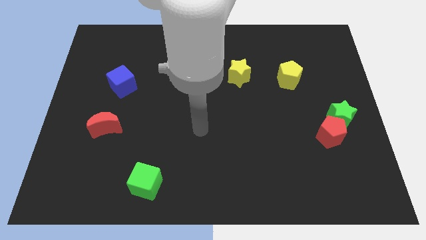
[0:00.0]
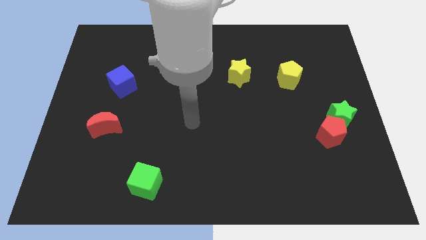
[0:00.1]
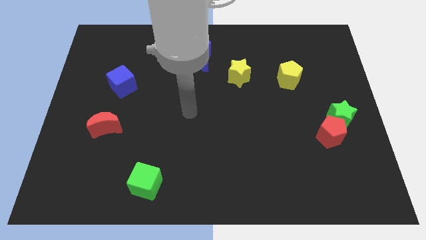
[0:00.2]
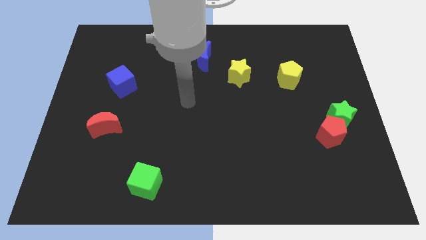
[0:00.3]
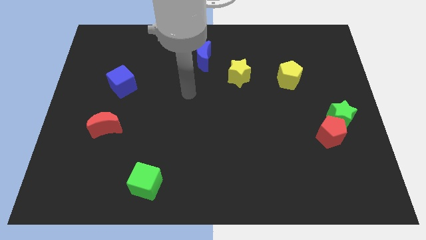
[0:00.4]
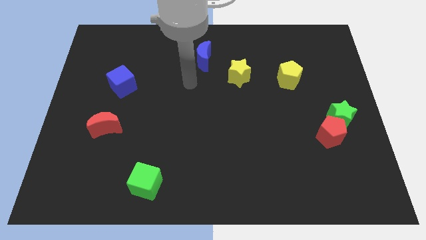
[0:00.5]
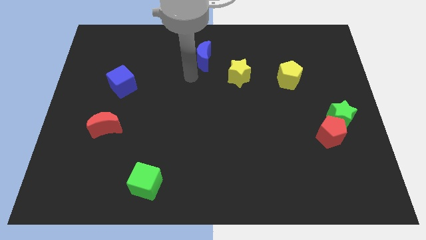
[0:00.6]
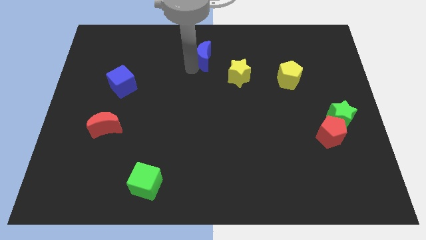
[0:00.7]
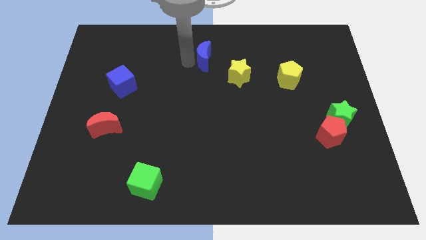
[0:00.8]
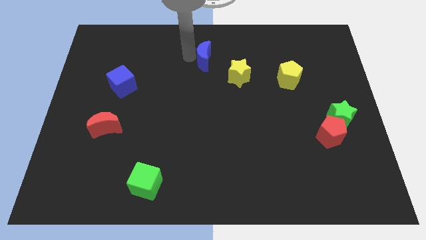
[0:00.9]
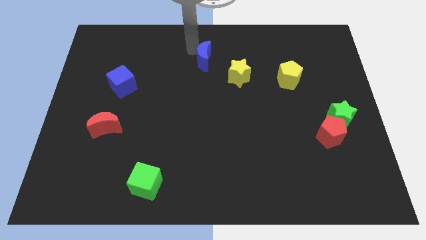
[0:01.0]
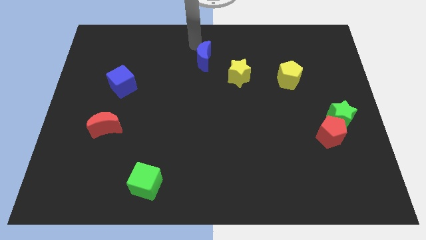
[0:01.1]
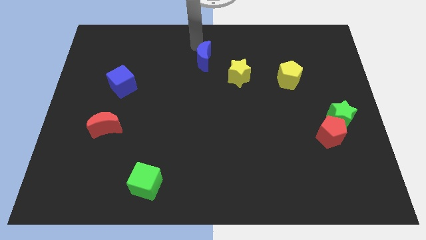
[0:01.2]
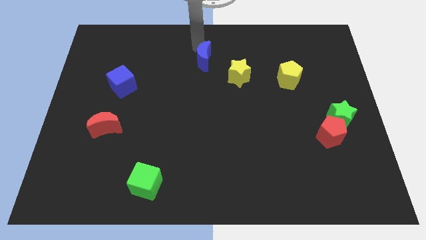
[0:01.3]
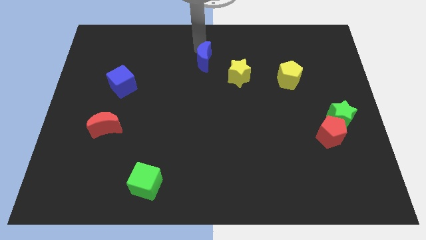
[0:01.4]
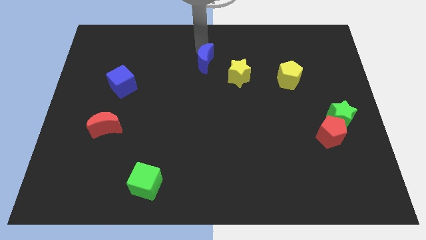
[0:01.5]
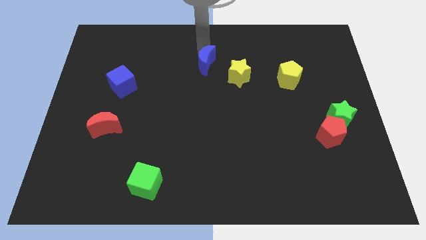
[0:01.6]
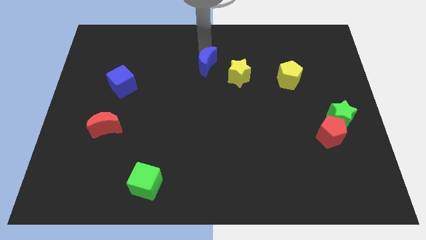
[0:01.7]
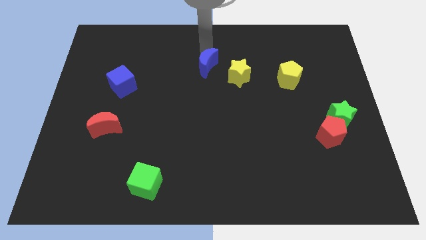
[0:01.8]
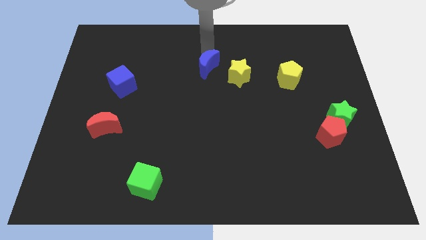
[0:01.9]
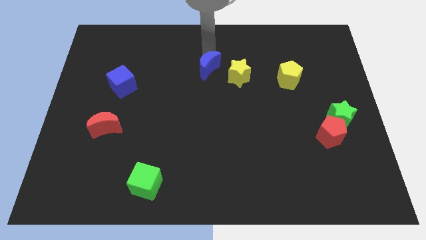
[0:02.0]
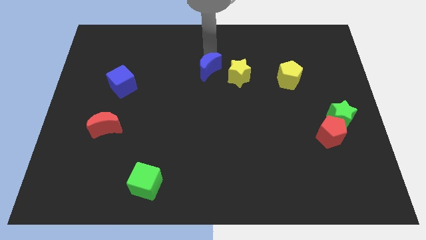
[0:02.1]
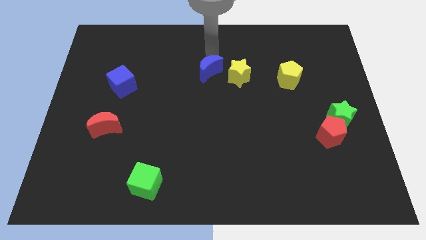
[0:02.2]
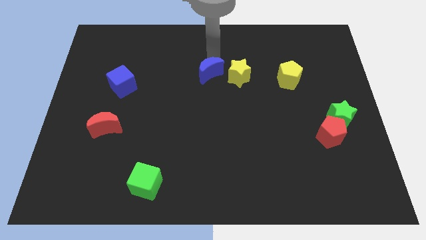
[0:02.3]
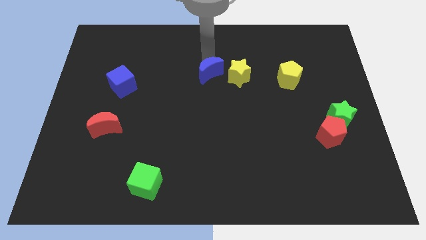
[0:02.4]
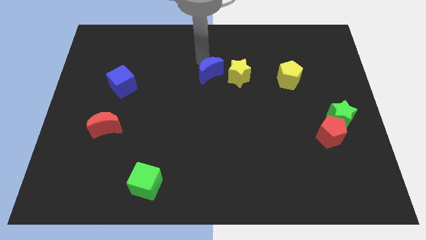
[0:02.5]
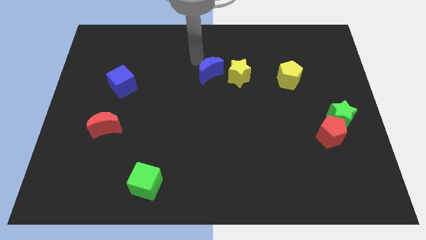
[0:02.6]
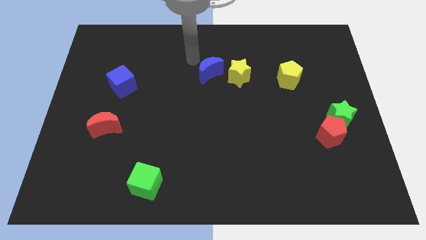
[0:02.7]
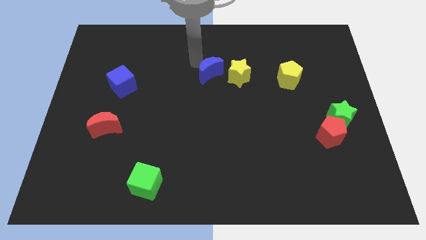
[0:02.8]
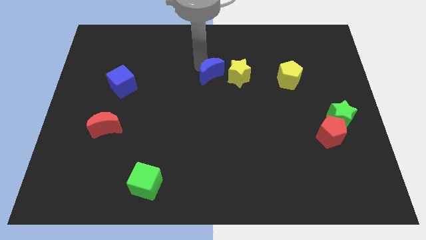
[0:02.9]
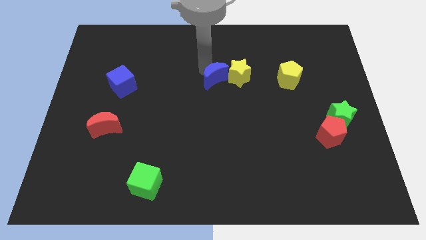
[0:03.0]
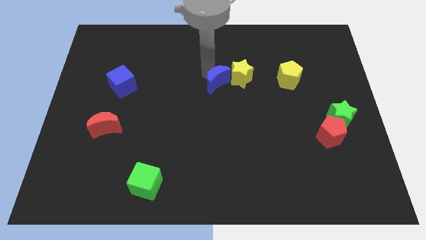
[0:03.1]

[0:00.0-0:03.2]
slide the blue moon slightly downwards and then right

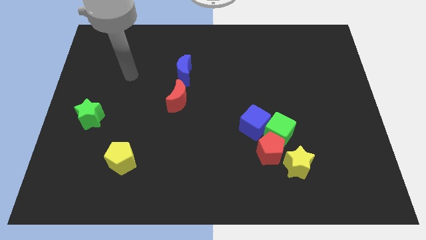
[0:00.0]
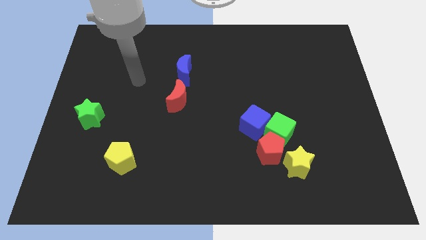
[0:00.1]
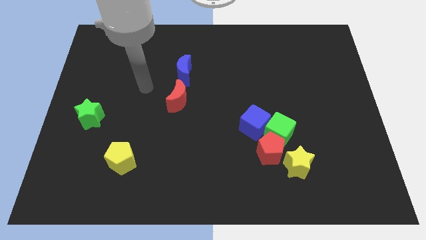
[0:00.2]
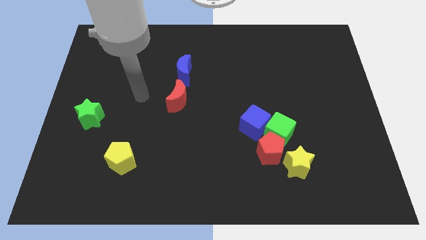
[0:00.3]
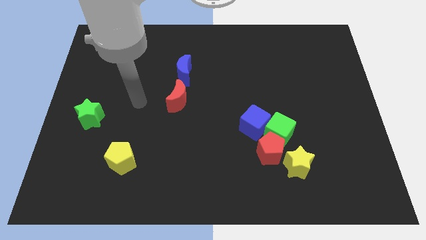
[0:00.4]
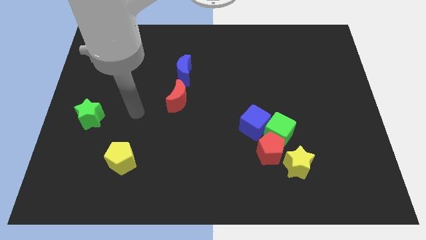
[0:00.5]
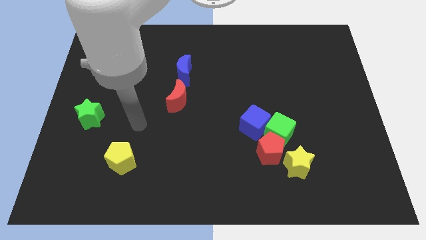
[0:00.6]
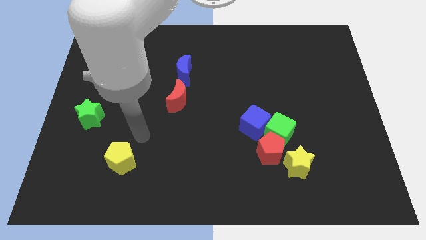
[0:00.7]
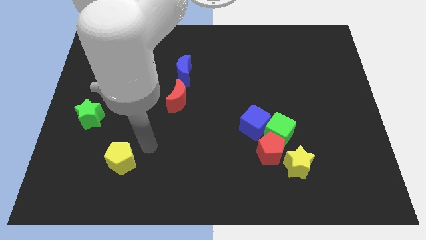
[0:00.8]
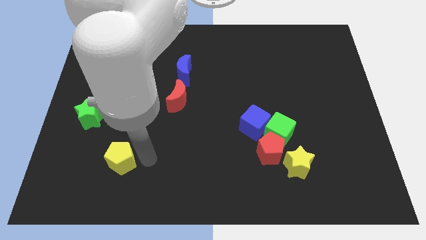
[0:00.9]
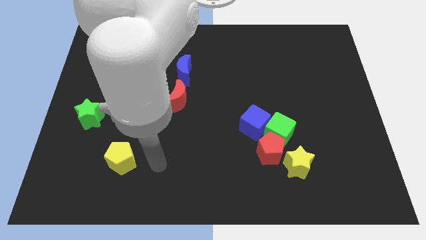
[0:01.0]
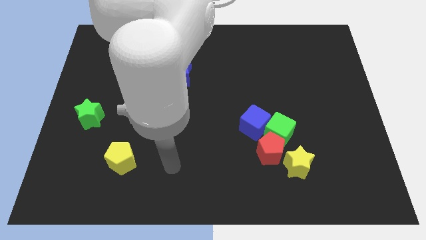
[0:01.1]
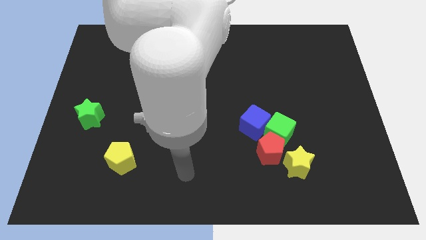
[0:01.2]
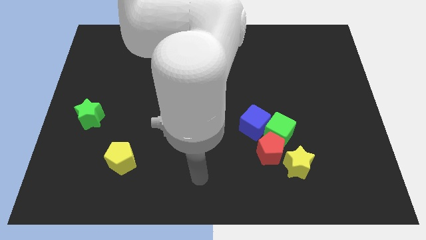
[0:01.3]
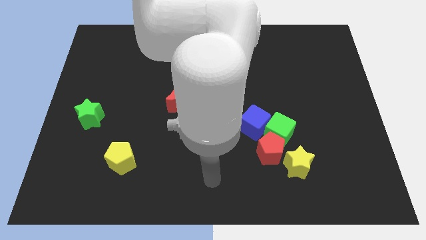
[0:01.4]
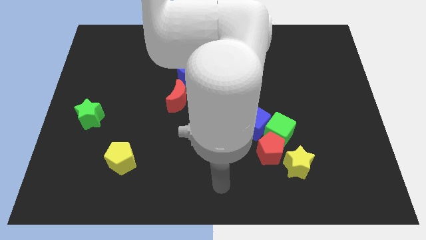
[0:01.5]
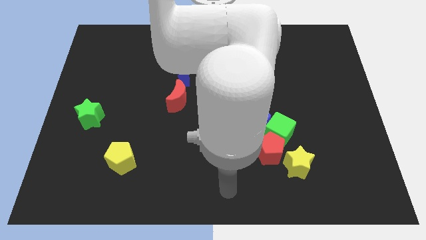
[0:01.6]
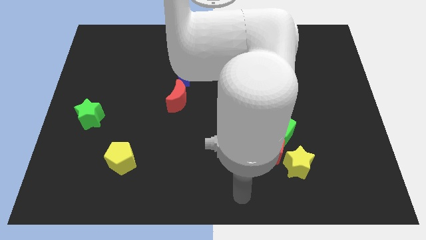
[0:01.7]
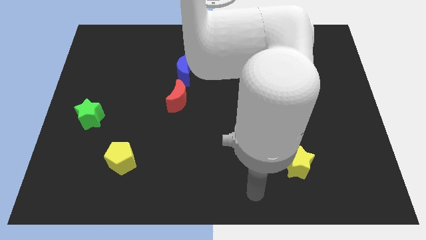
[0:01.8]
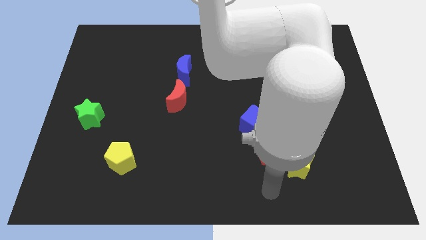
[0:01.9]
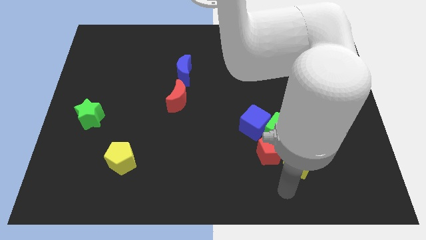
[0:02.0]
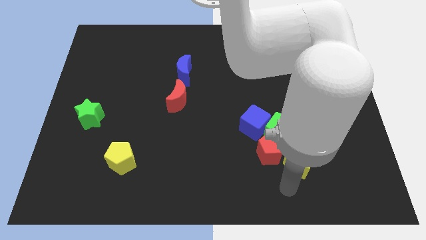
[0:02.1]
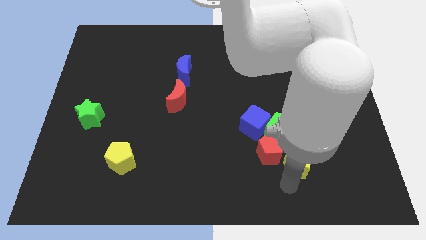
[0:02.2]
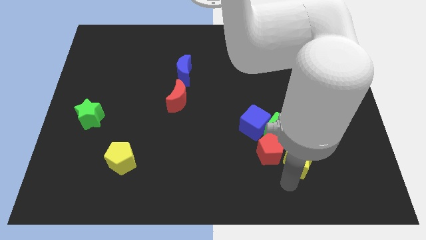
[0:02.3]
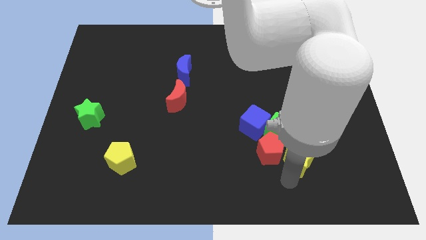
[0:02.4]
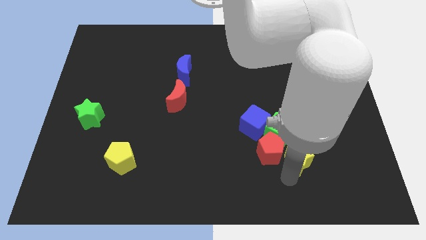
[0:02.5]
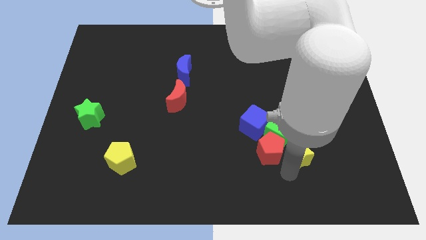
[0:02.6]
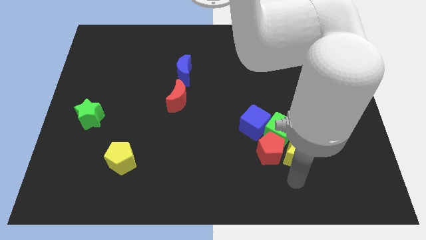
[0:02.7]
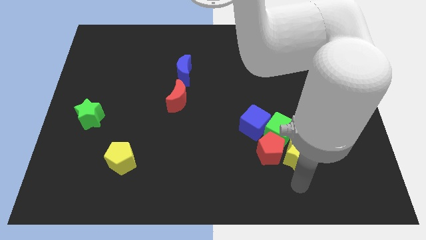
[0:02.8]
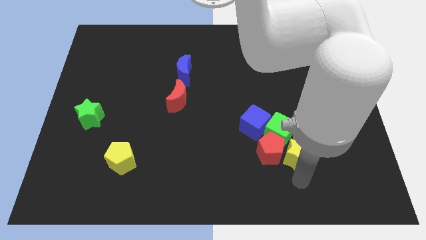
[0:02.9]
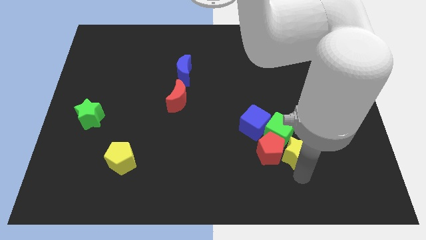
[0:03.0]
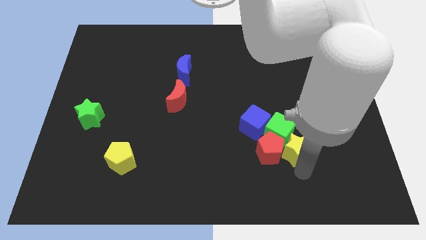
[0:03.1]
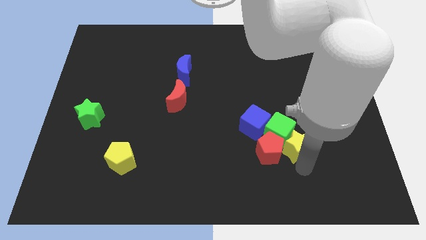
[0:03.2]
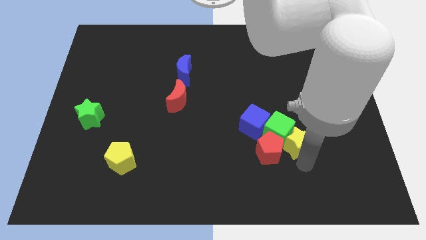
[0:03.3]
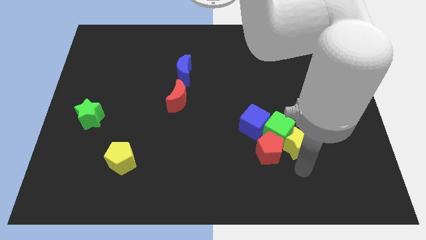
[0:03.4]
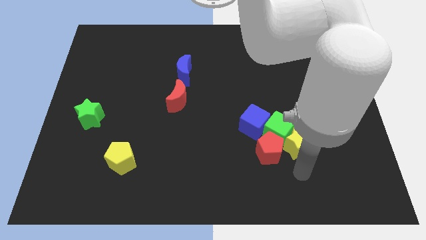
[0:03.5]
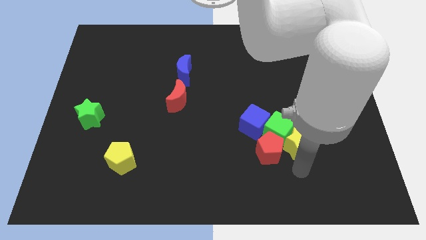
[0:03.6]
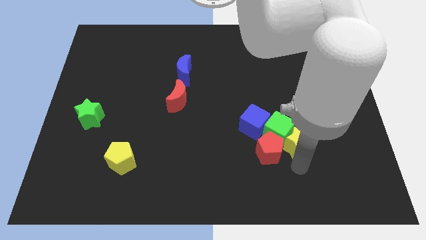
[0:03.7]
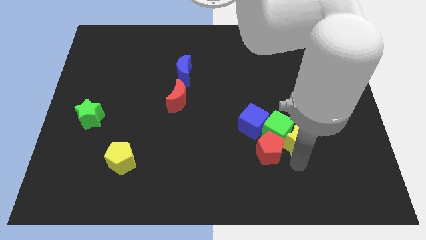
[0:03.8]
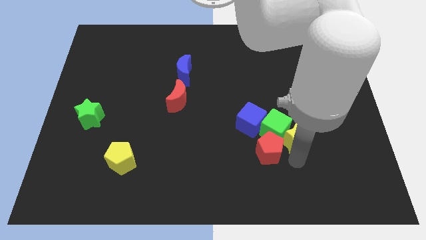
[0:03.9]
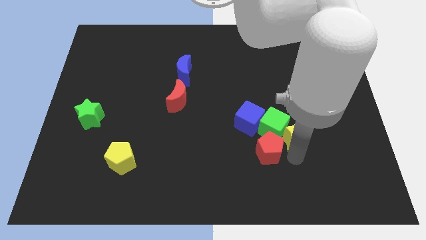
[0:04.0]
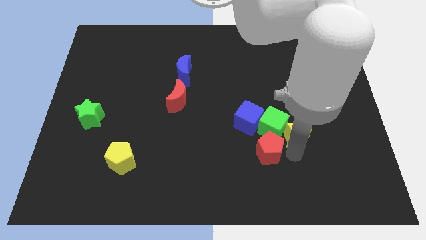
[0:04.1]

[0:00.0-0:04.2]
push the yellow star somewhat up
